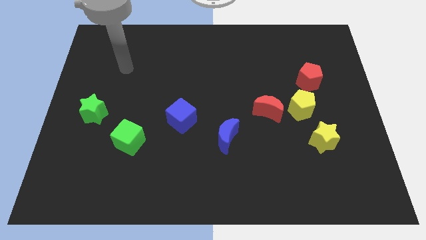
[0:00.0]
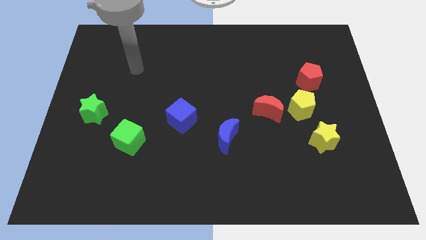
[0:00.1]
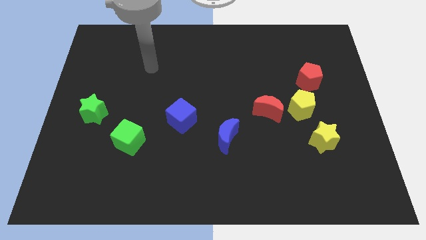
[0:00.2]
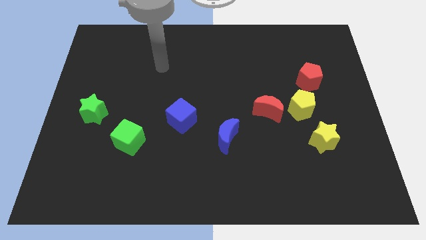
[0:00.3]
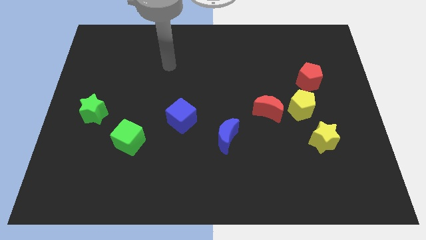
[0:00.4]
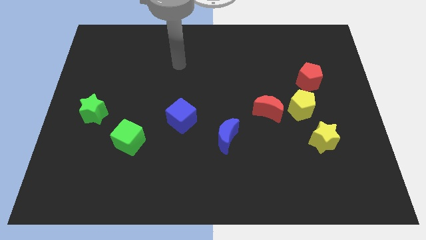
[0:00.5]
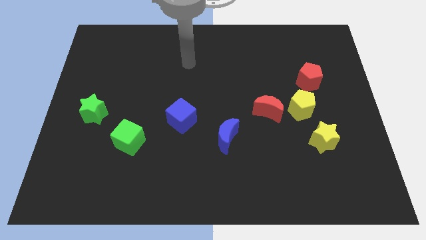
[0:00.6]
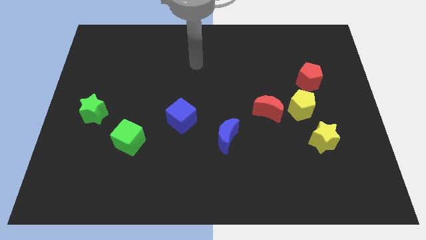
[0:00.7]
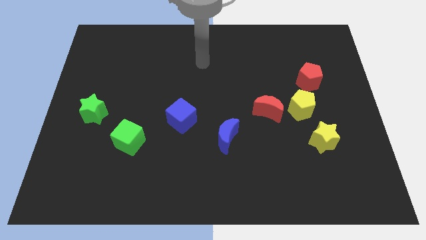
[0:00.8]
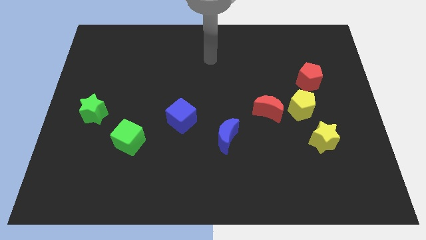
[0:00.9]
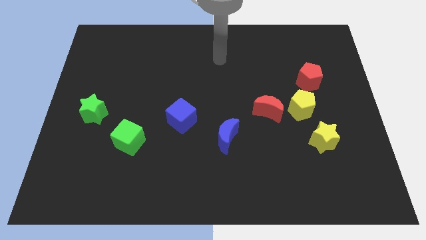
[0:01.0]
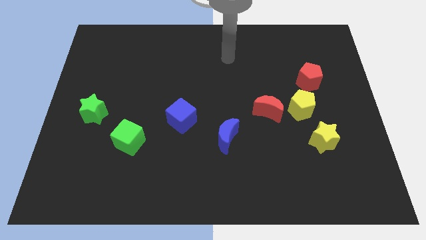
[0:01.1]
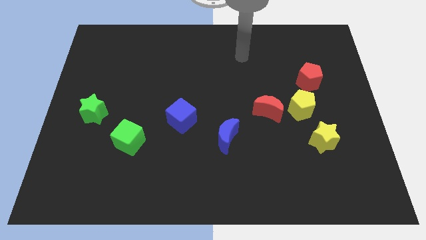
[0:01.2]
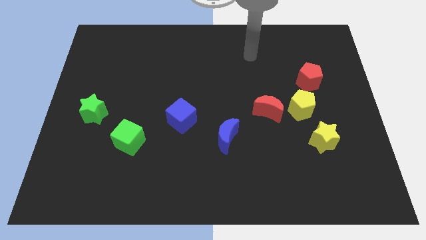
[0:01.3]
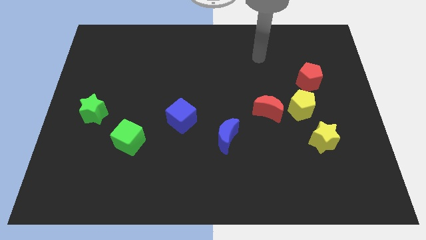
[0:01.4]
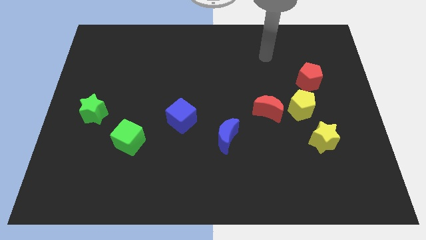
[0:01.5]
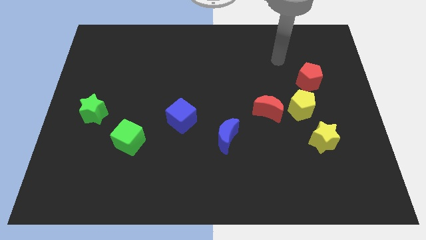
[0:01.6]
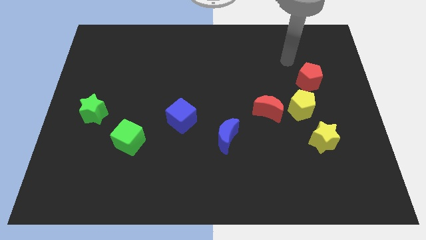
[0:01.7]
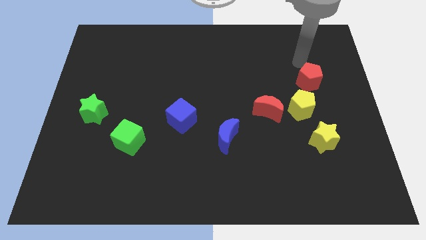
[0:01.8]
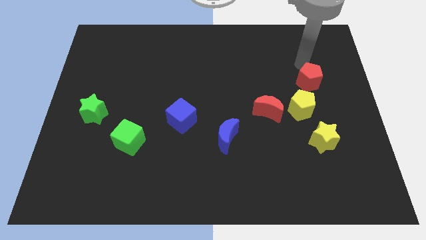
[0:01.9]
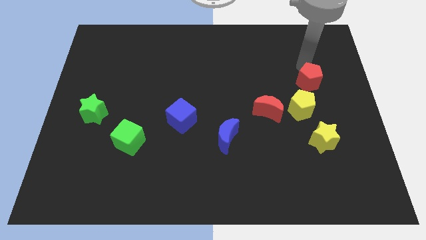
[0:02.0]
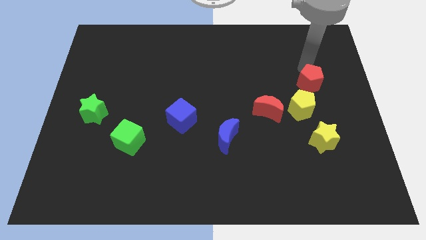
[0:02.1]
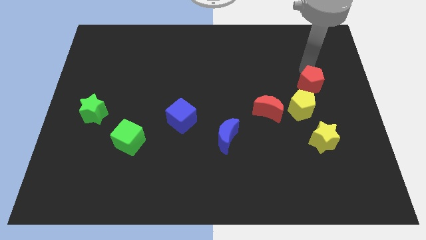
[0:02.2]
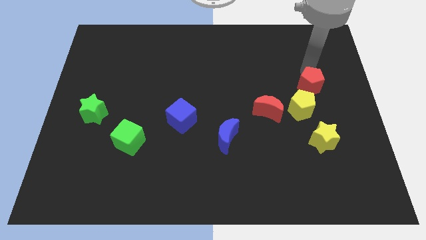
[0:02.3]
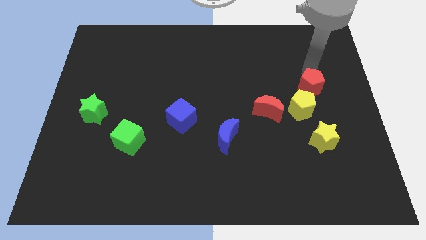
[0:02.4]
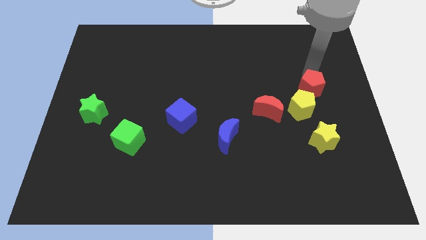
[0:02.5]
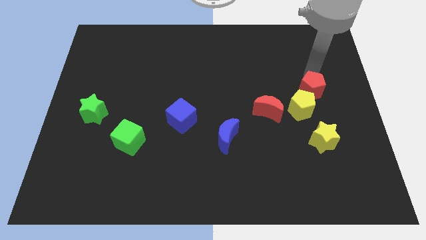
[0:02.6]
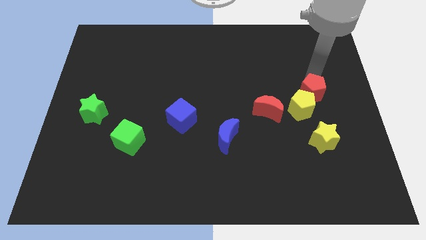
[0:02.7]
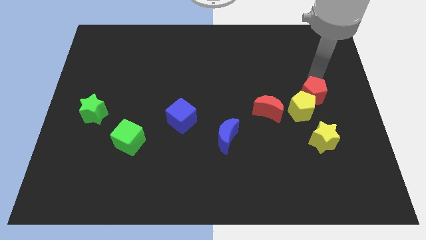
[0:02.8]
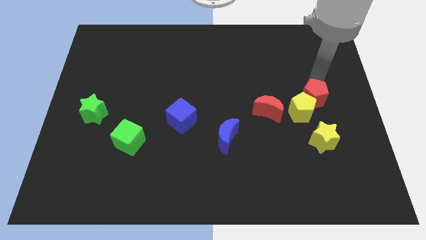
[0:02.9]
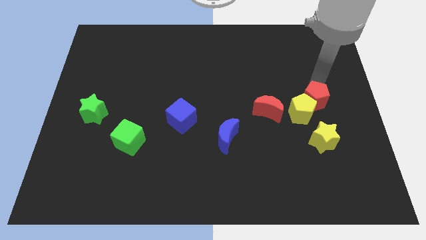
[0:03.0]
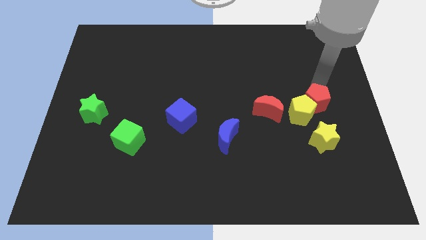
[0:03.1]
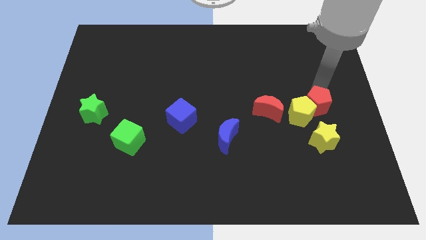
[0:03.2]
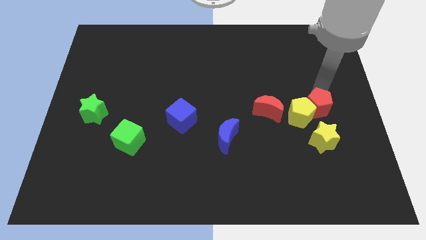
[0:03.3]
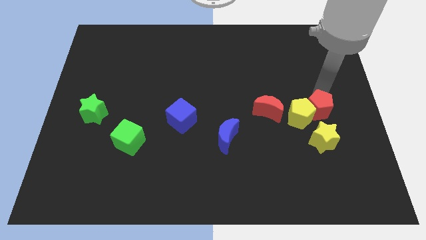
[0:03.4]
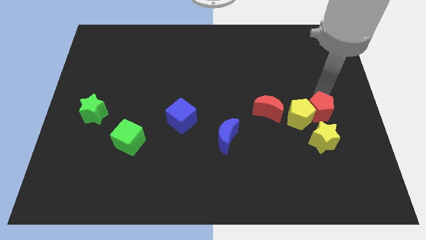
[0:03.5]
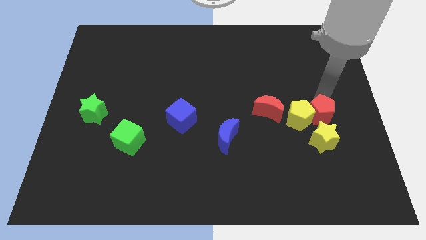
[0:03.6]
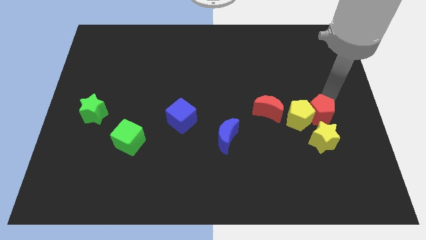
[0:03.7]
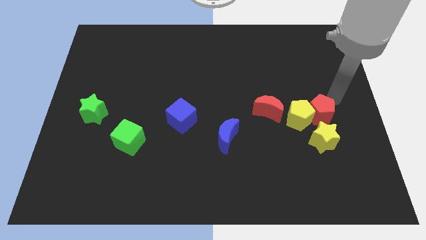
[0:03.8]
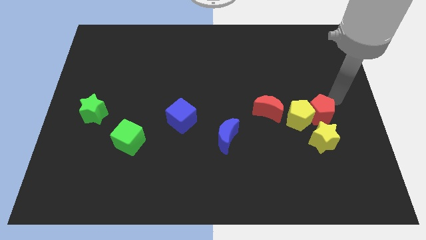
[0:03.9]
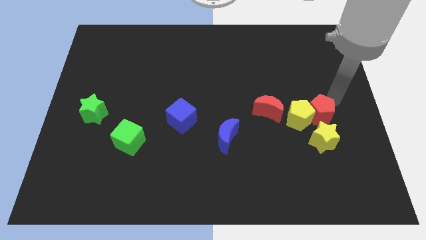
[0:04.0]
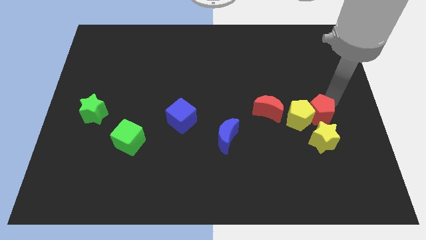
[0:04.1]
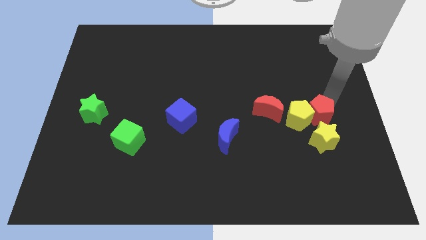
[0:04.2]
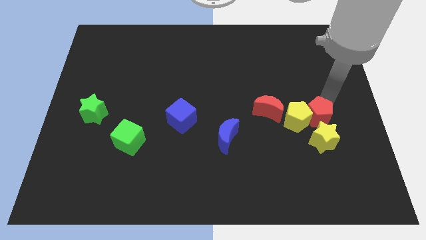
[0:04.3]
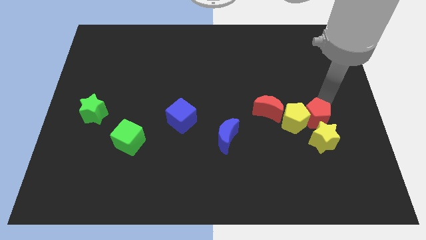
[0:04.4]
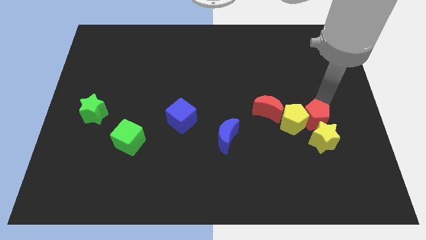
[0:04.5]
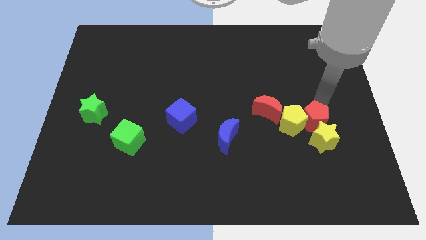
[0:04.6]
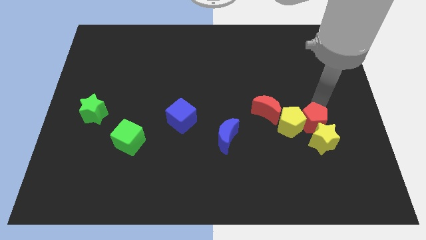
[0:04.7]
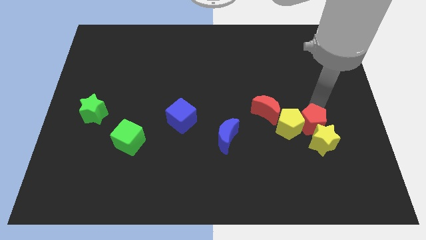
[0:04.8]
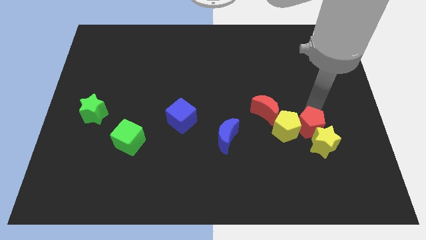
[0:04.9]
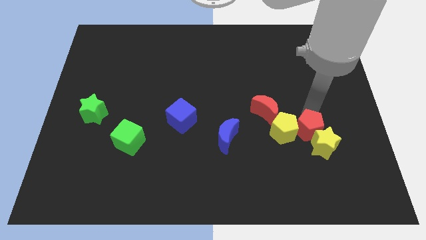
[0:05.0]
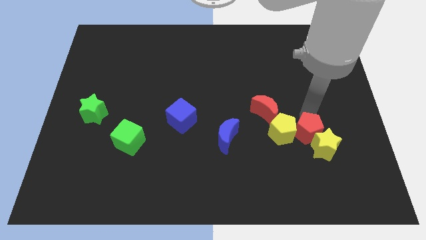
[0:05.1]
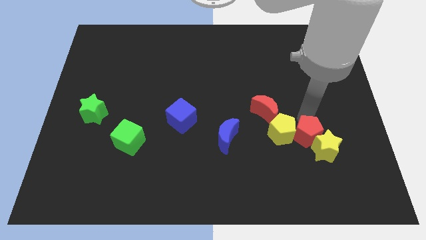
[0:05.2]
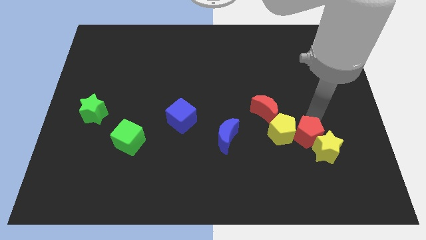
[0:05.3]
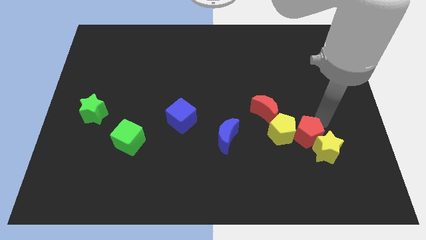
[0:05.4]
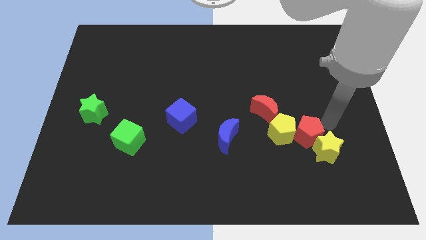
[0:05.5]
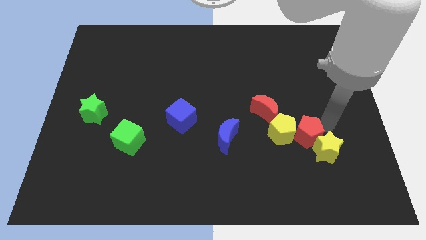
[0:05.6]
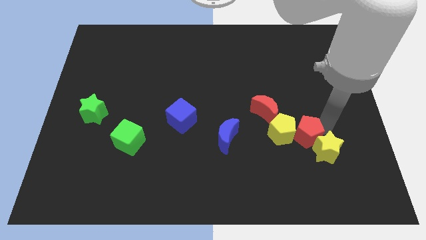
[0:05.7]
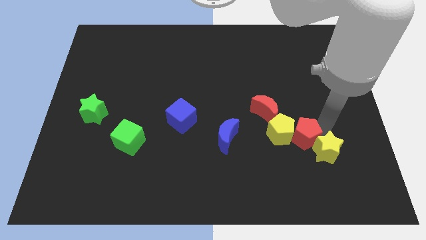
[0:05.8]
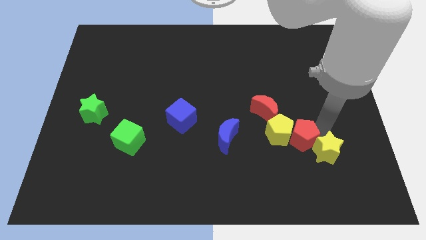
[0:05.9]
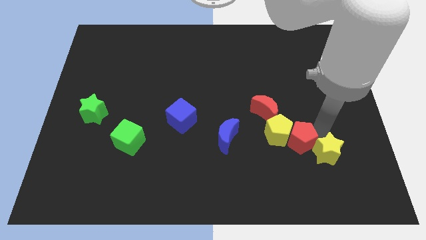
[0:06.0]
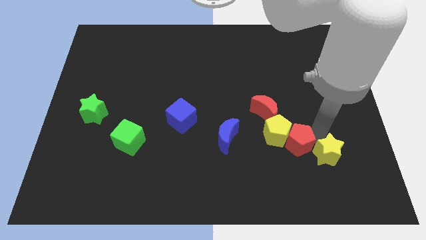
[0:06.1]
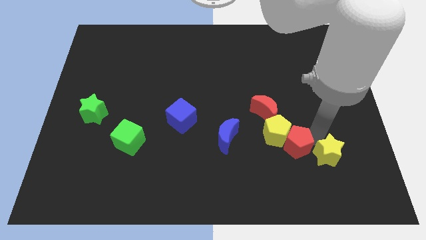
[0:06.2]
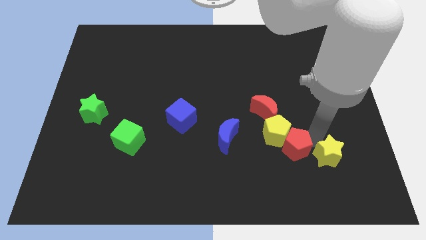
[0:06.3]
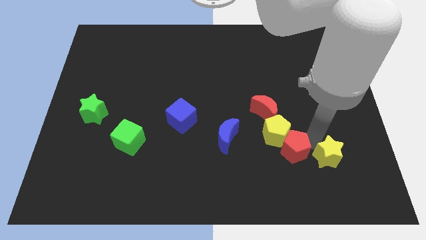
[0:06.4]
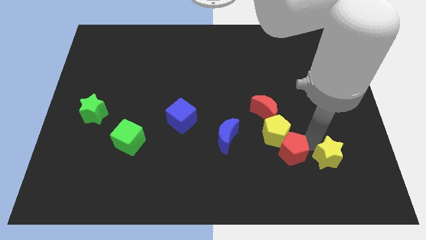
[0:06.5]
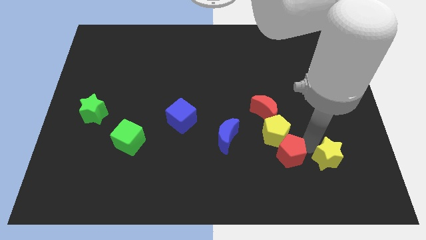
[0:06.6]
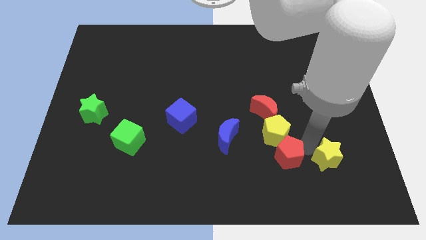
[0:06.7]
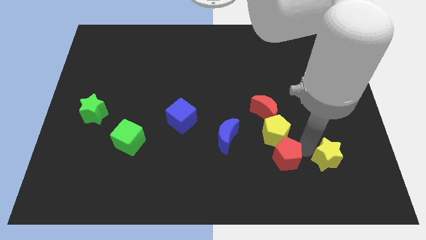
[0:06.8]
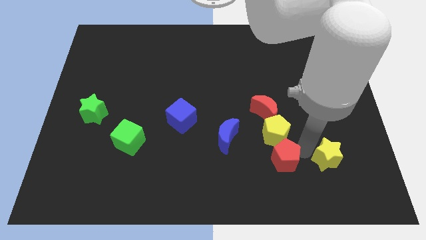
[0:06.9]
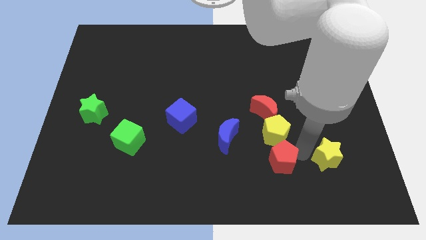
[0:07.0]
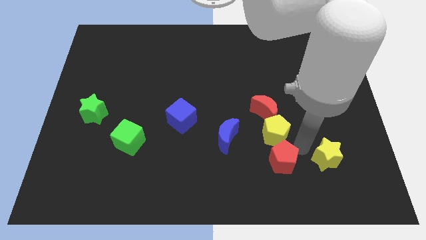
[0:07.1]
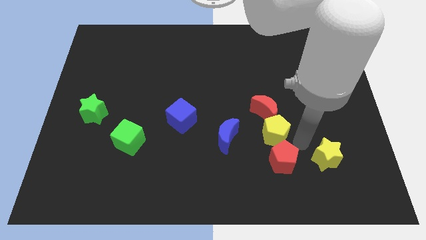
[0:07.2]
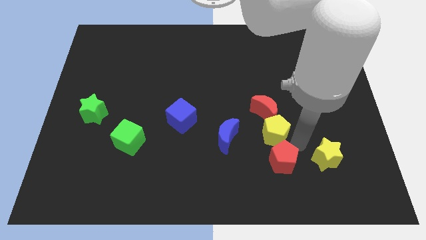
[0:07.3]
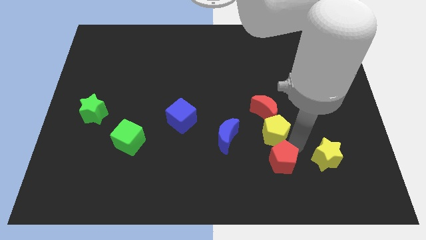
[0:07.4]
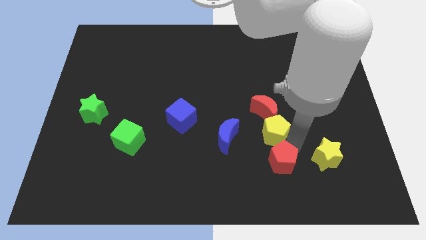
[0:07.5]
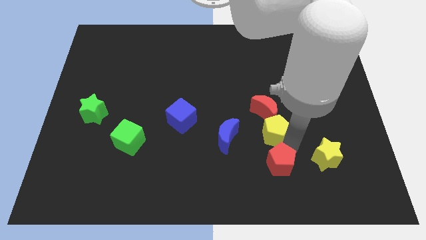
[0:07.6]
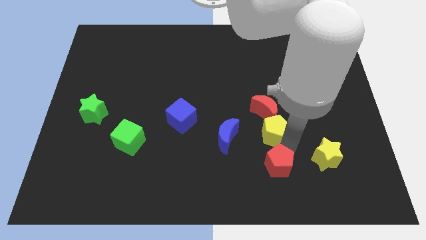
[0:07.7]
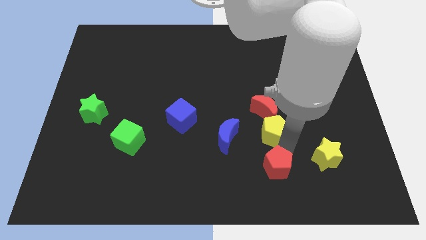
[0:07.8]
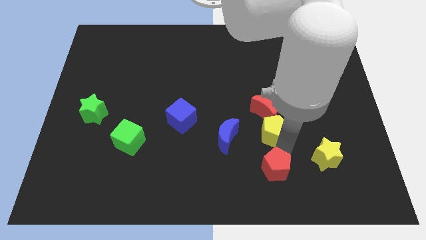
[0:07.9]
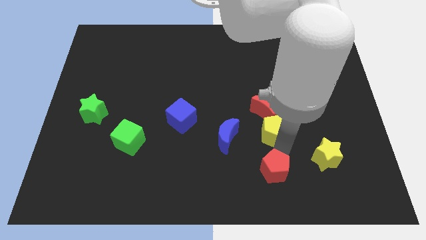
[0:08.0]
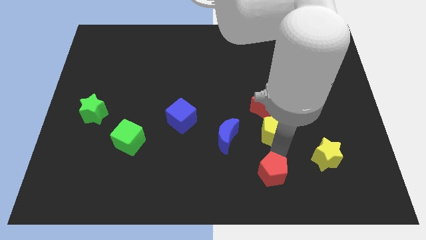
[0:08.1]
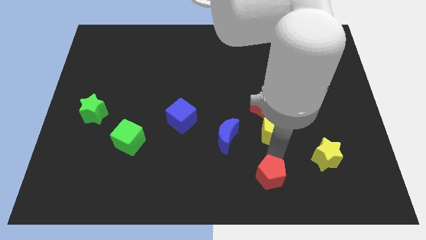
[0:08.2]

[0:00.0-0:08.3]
move the red pentagon to the bottom
